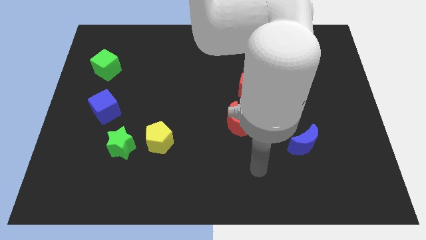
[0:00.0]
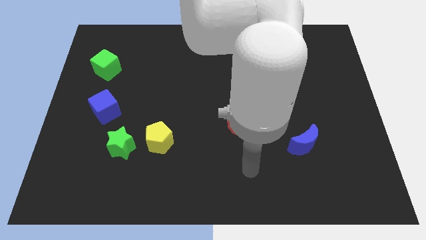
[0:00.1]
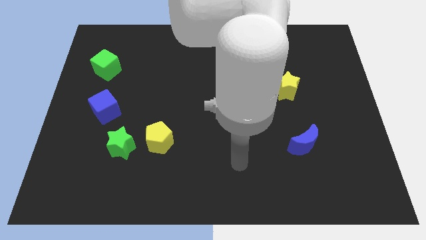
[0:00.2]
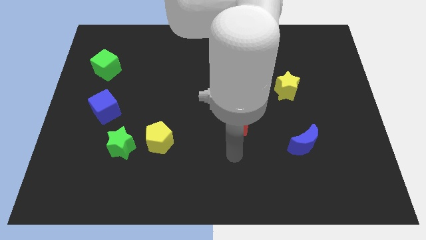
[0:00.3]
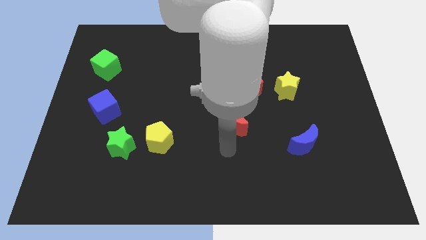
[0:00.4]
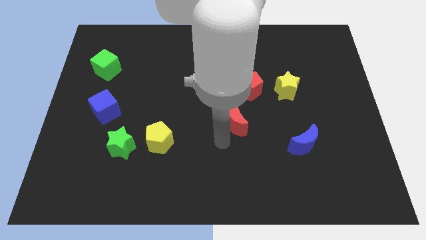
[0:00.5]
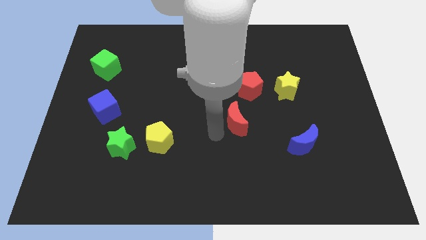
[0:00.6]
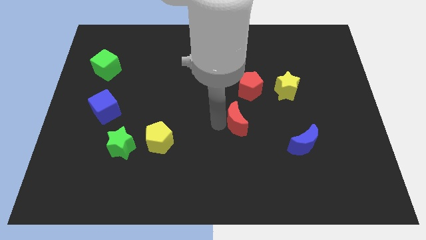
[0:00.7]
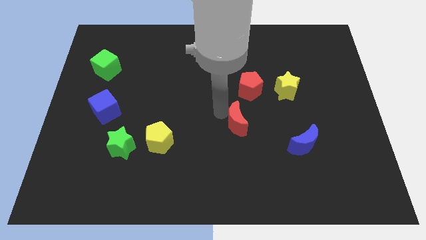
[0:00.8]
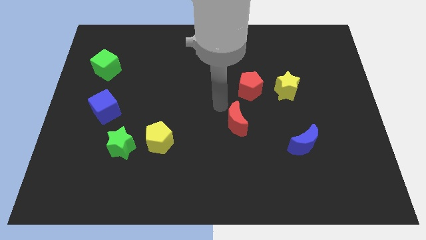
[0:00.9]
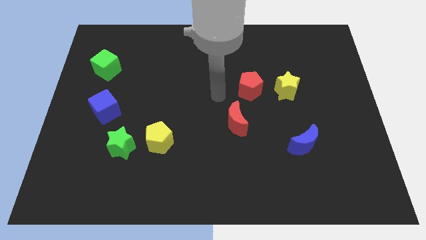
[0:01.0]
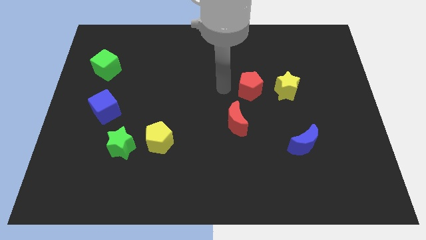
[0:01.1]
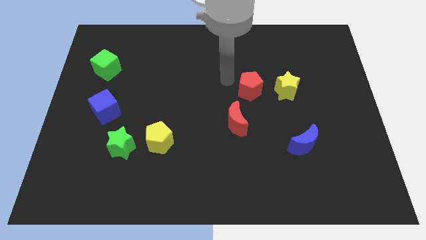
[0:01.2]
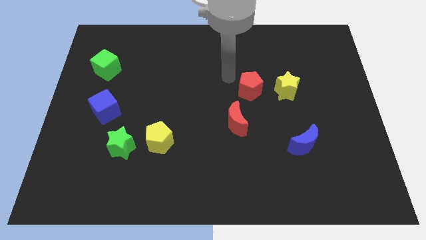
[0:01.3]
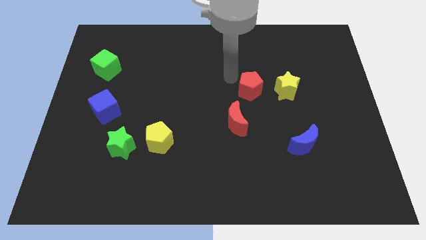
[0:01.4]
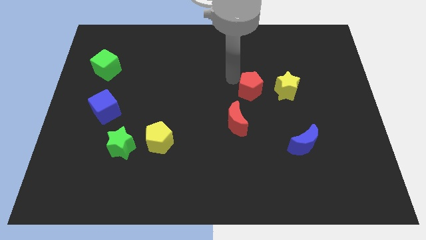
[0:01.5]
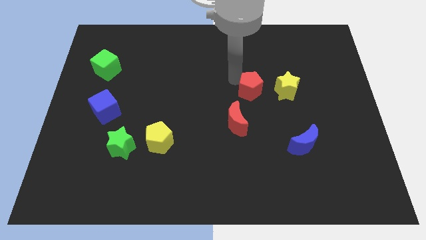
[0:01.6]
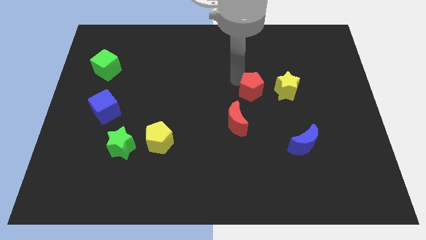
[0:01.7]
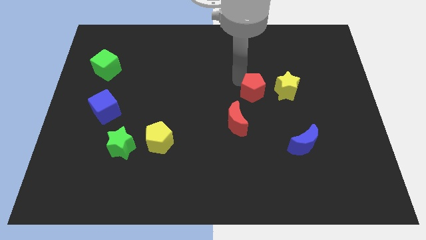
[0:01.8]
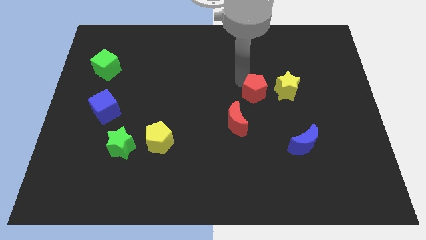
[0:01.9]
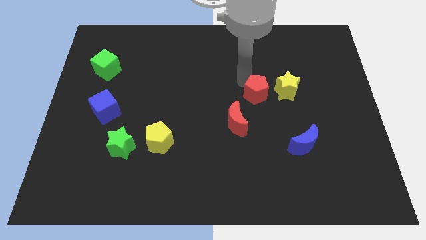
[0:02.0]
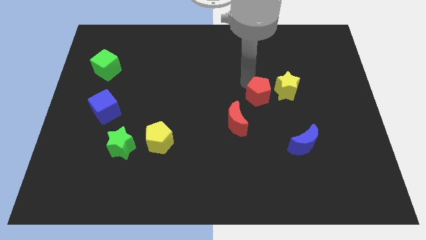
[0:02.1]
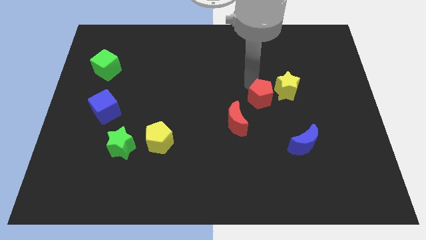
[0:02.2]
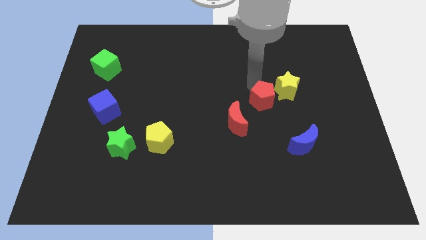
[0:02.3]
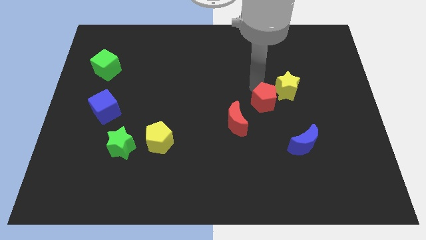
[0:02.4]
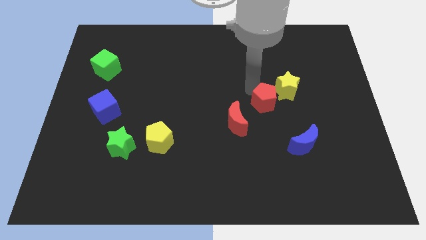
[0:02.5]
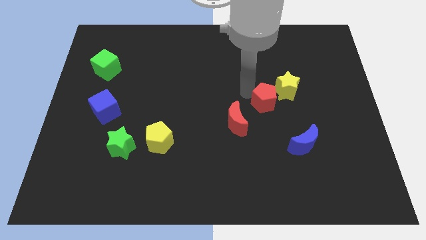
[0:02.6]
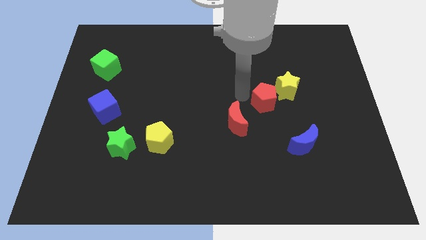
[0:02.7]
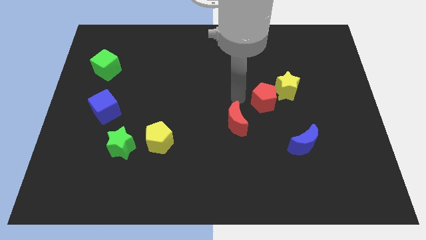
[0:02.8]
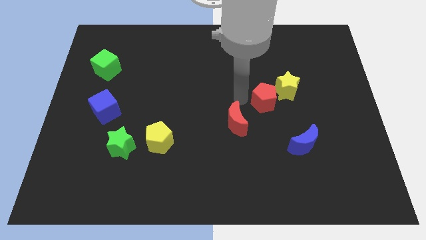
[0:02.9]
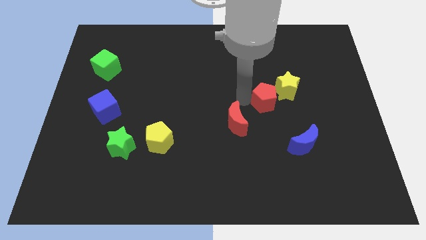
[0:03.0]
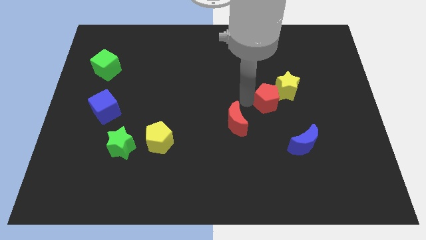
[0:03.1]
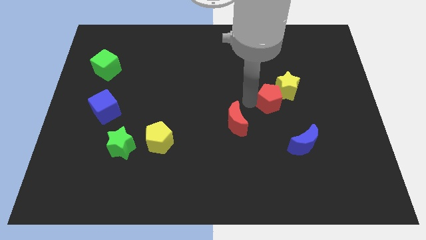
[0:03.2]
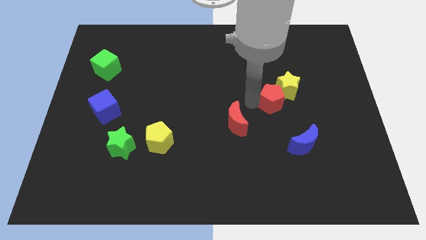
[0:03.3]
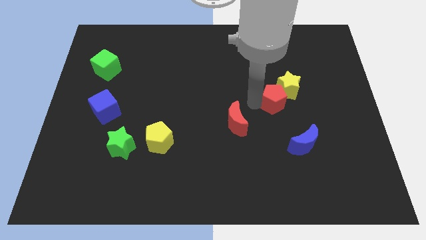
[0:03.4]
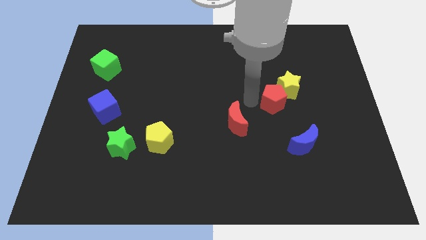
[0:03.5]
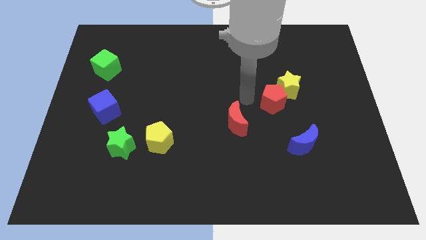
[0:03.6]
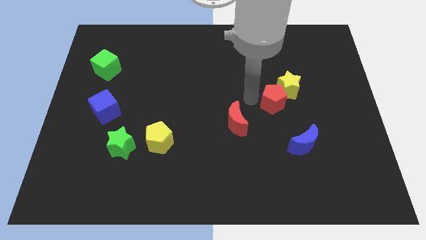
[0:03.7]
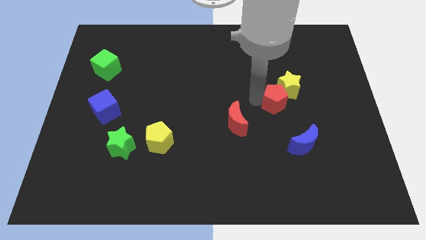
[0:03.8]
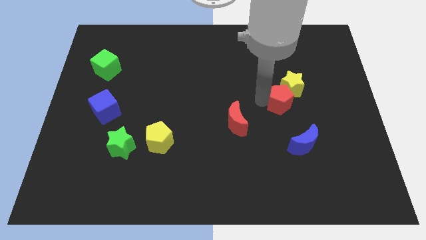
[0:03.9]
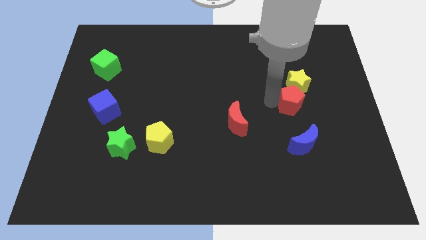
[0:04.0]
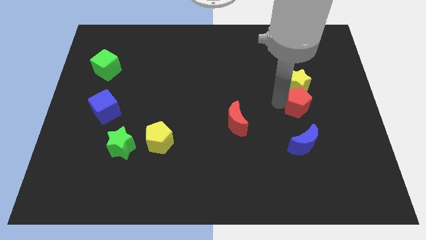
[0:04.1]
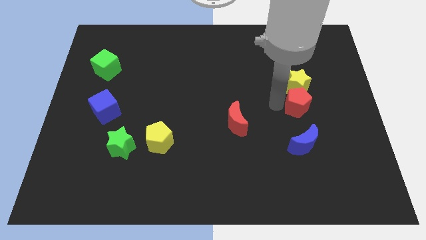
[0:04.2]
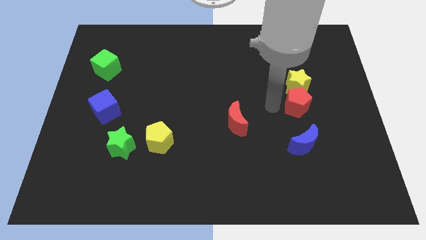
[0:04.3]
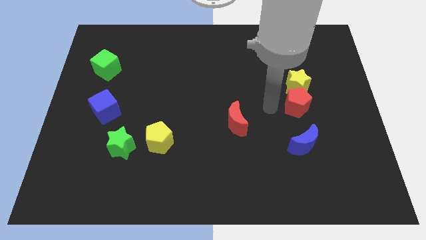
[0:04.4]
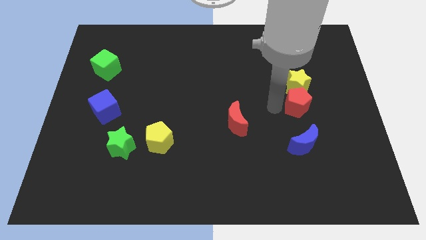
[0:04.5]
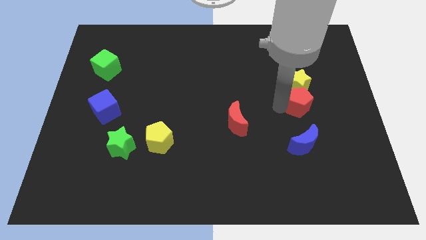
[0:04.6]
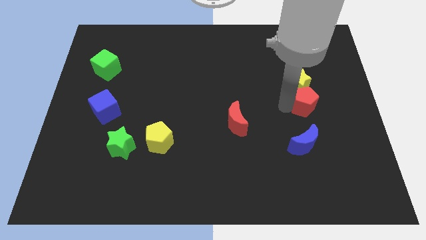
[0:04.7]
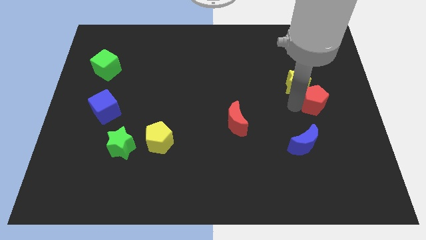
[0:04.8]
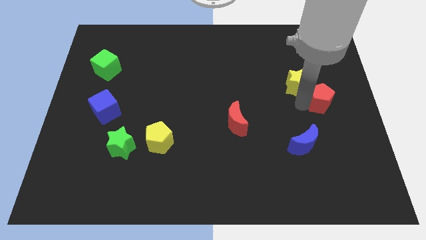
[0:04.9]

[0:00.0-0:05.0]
push the red pentagon to the right side

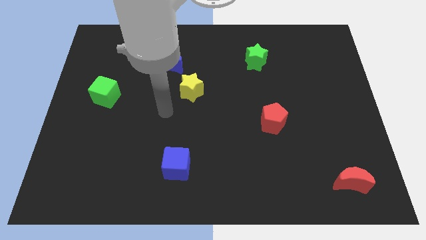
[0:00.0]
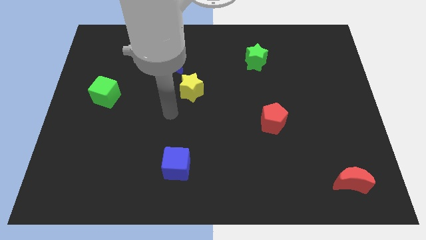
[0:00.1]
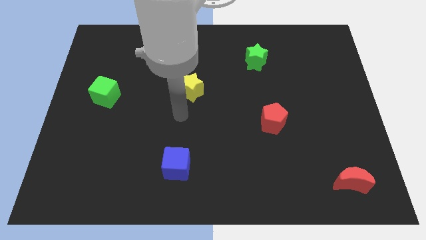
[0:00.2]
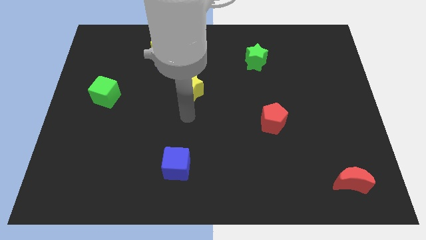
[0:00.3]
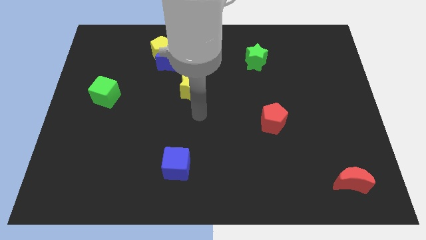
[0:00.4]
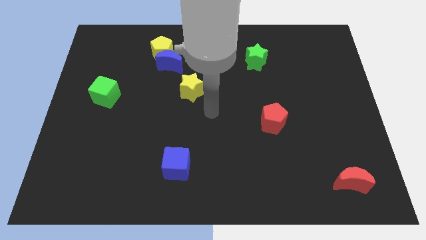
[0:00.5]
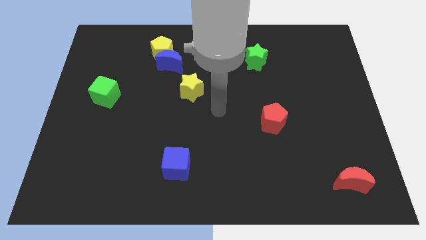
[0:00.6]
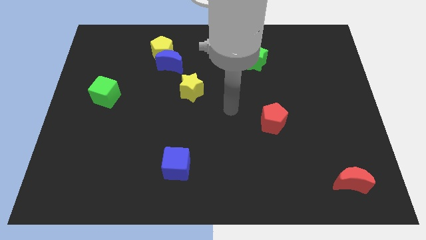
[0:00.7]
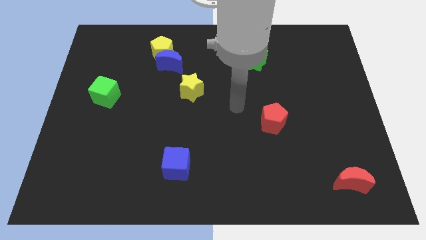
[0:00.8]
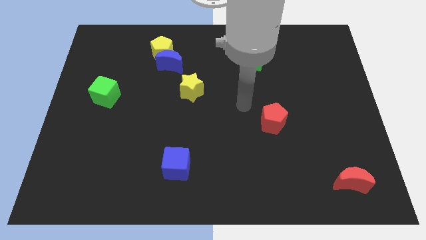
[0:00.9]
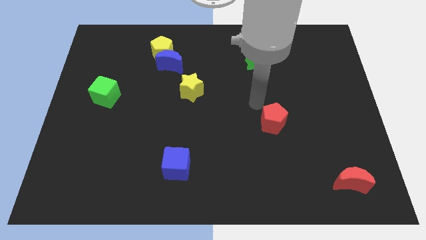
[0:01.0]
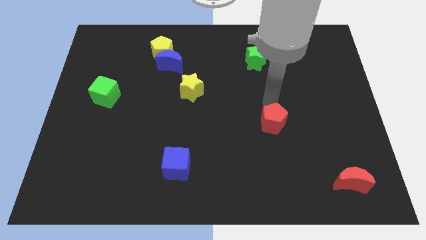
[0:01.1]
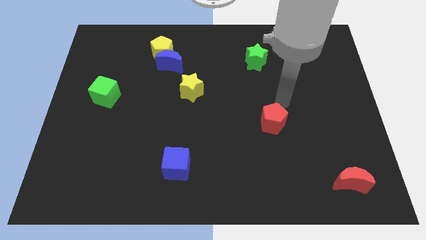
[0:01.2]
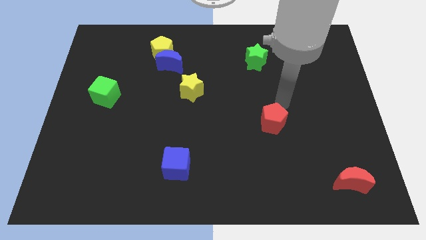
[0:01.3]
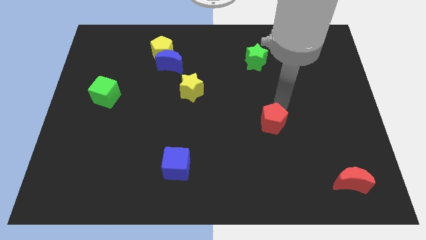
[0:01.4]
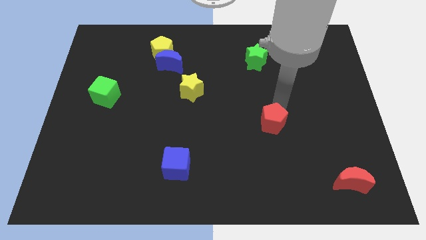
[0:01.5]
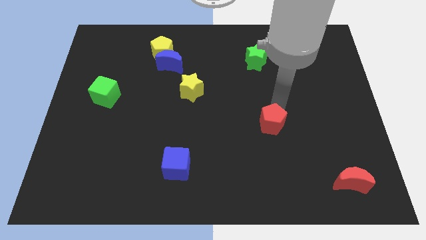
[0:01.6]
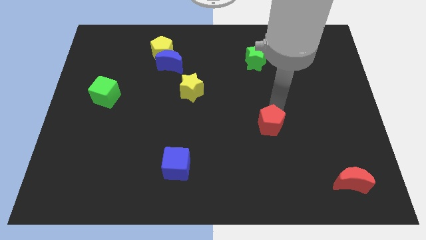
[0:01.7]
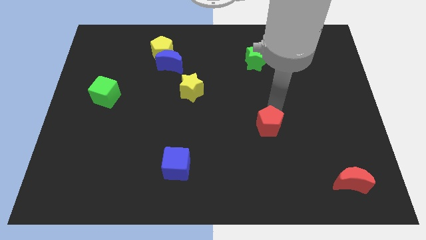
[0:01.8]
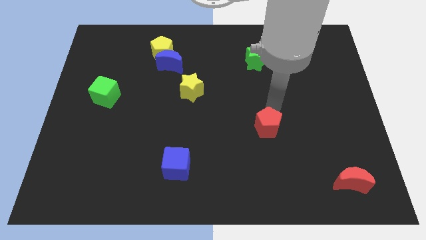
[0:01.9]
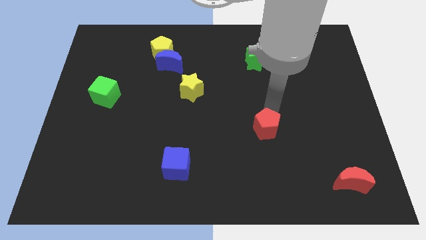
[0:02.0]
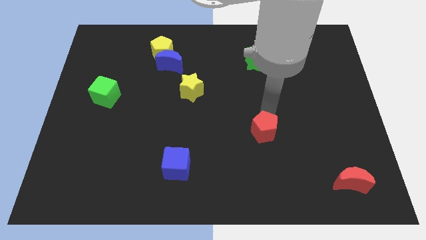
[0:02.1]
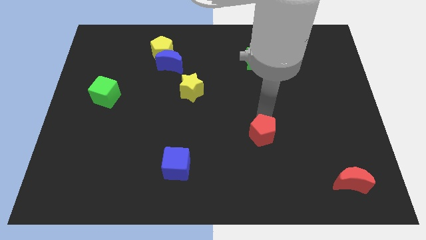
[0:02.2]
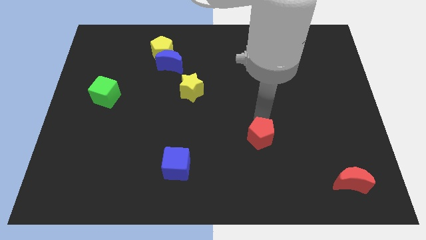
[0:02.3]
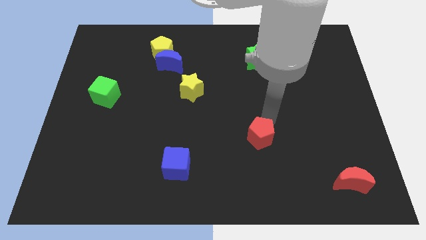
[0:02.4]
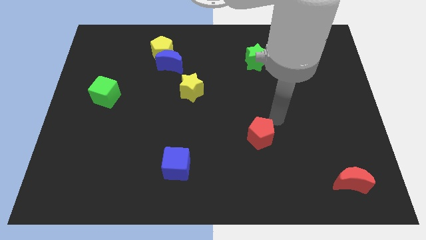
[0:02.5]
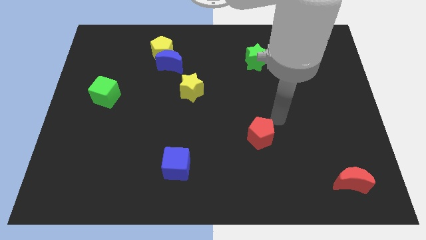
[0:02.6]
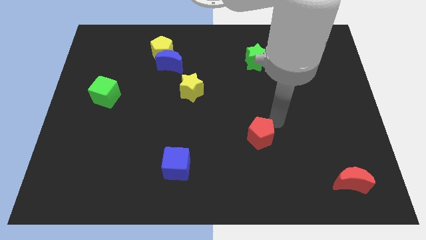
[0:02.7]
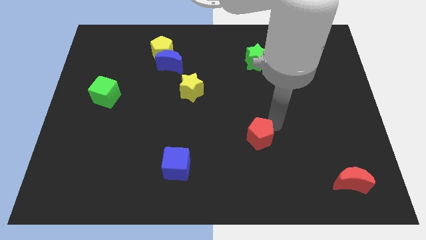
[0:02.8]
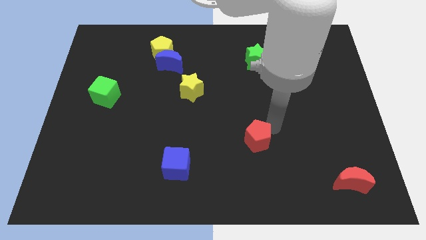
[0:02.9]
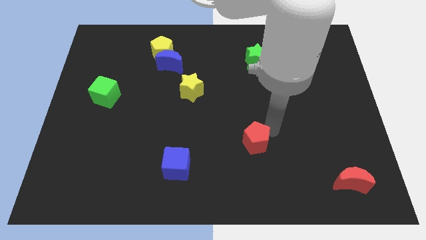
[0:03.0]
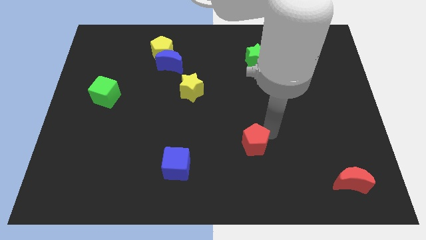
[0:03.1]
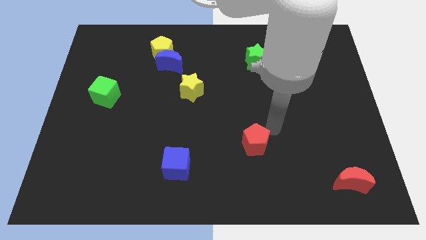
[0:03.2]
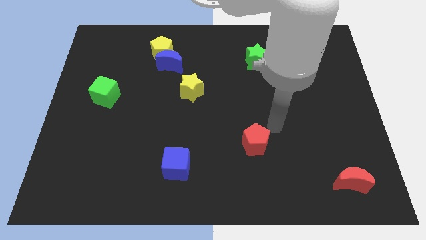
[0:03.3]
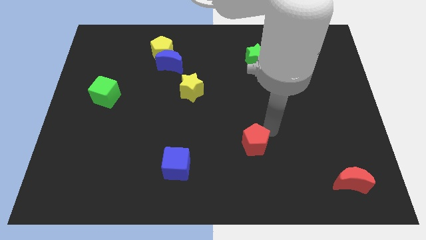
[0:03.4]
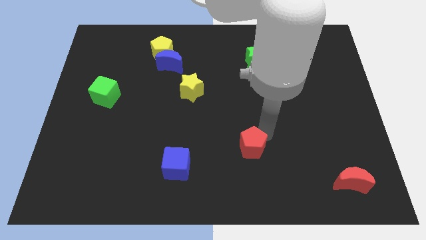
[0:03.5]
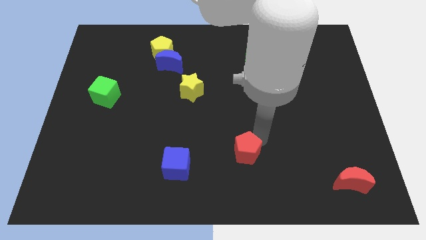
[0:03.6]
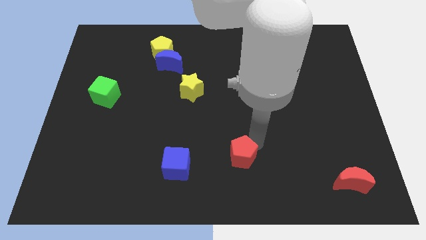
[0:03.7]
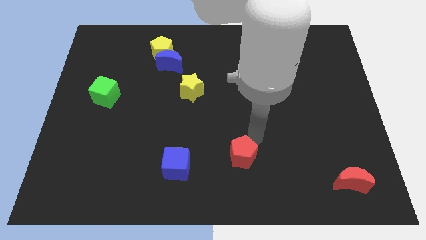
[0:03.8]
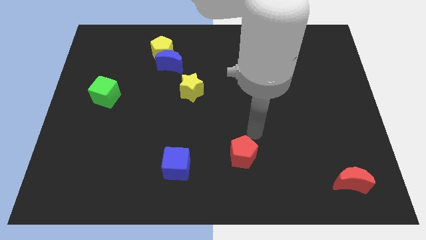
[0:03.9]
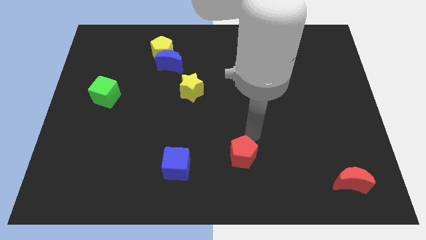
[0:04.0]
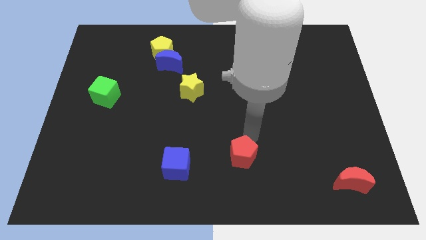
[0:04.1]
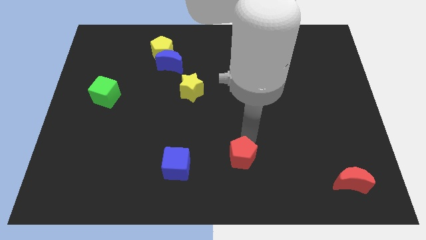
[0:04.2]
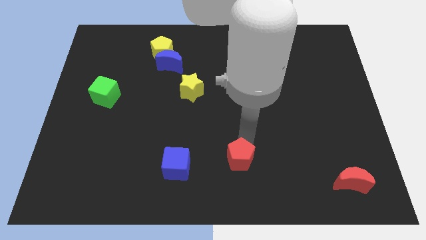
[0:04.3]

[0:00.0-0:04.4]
put the red pentagon to the bottom side
